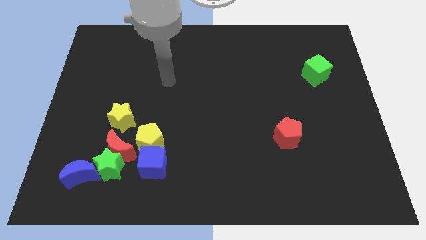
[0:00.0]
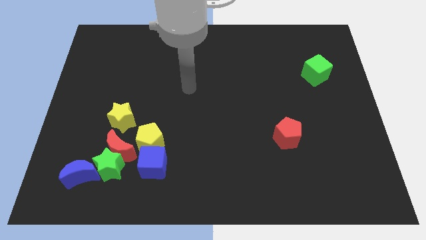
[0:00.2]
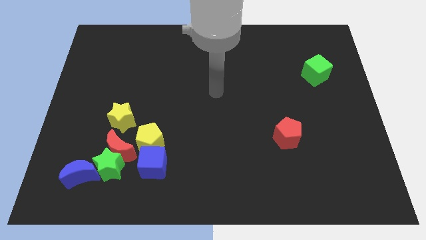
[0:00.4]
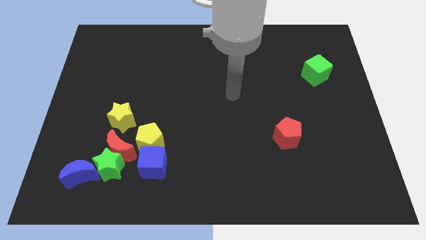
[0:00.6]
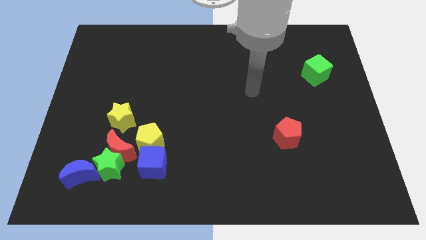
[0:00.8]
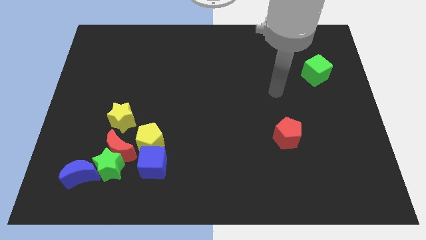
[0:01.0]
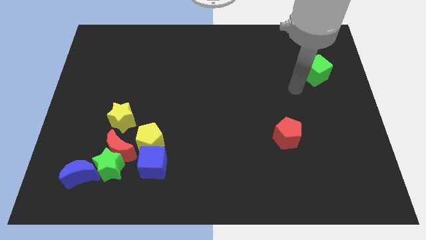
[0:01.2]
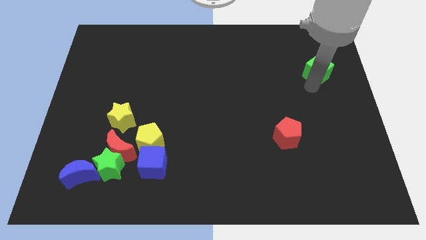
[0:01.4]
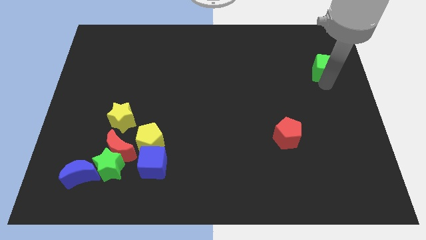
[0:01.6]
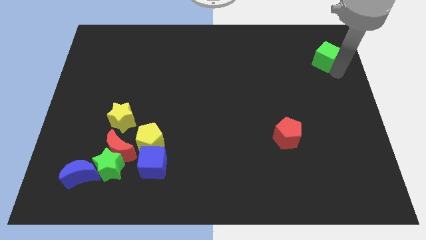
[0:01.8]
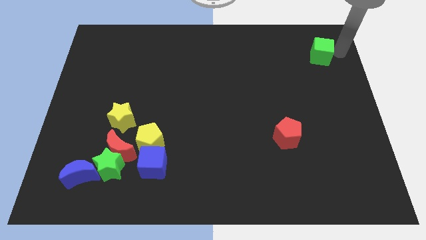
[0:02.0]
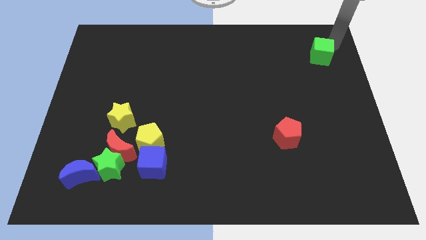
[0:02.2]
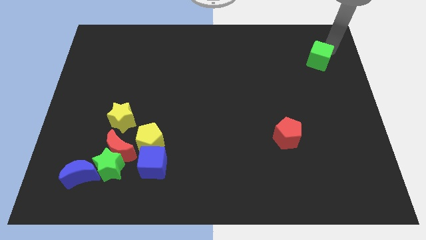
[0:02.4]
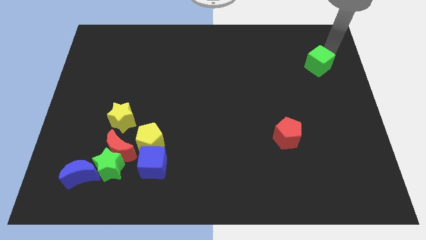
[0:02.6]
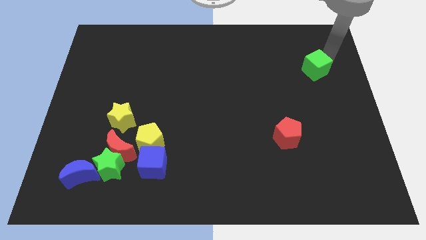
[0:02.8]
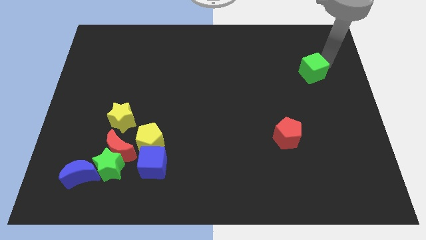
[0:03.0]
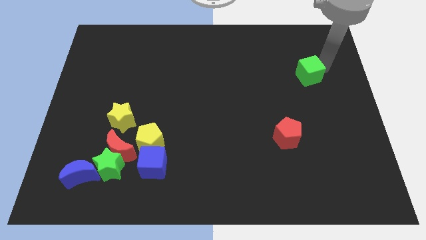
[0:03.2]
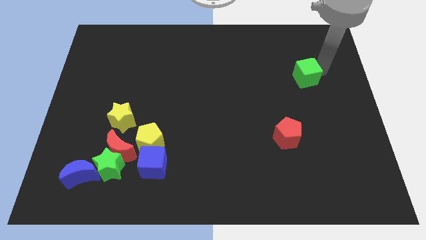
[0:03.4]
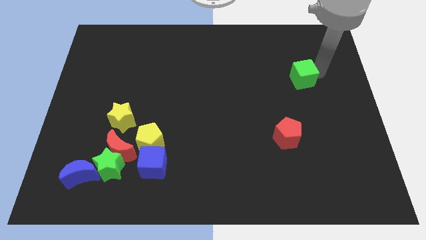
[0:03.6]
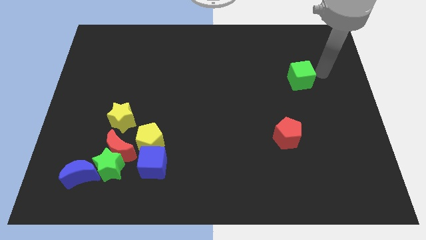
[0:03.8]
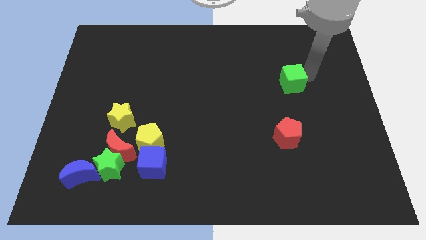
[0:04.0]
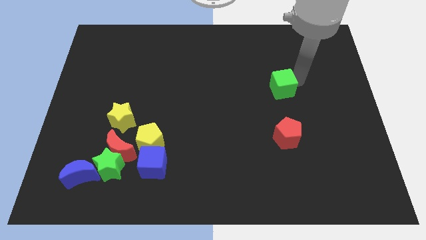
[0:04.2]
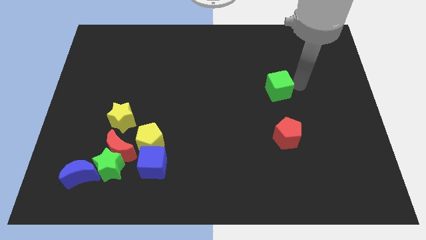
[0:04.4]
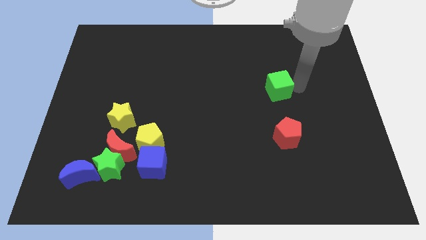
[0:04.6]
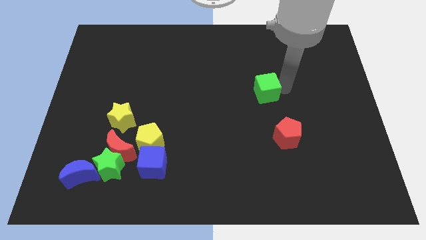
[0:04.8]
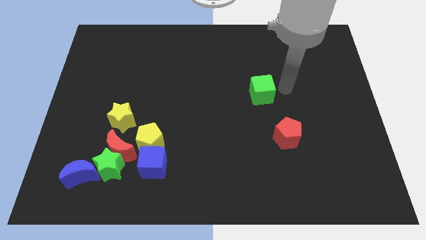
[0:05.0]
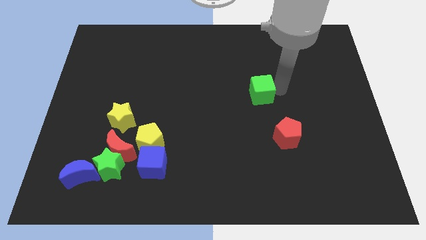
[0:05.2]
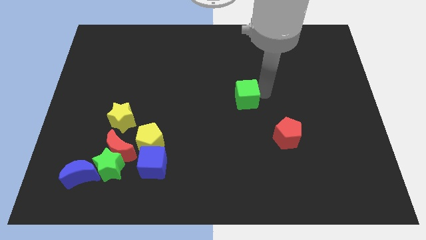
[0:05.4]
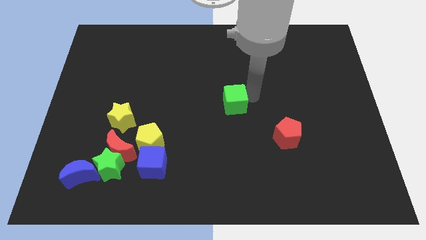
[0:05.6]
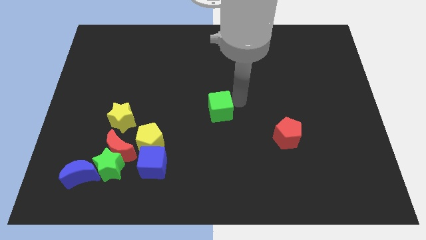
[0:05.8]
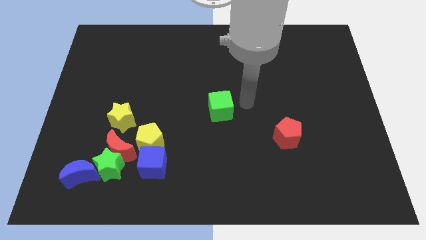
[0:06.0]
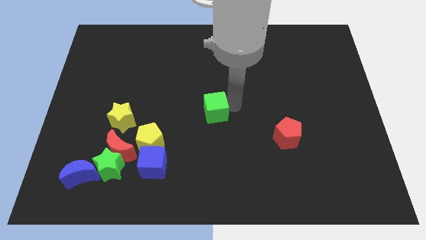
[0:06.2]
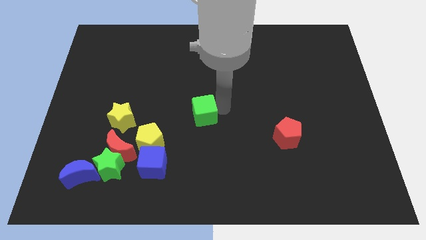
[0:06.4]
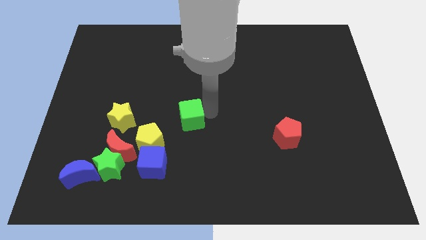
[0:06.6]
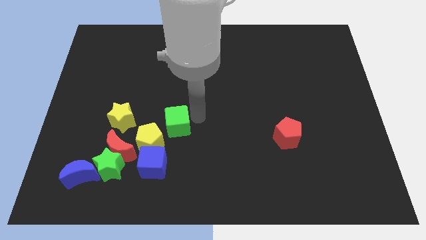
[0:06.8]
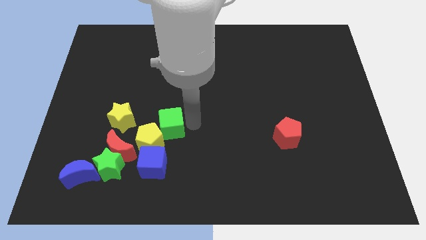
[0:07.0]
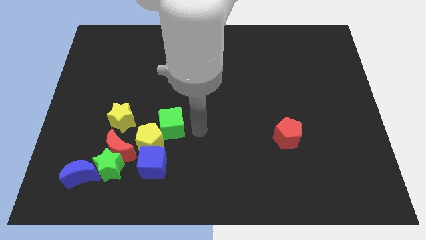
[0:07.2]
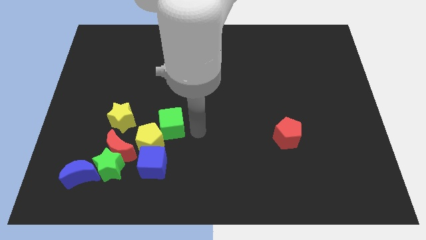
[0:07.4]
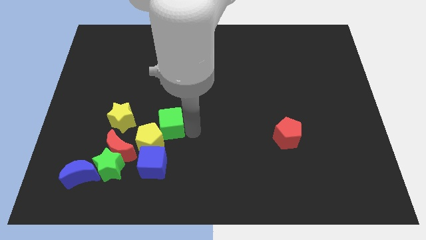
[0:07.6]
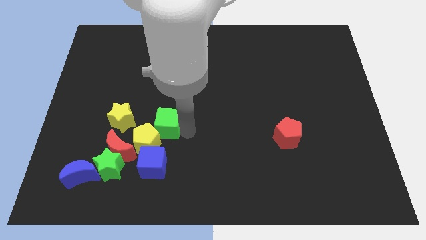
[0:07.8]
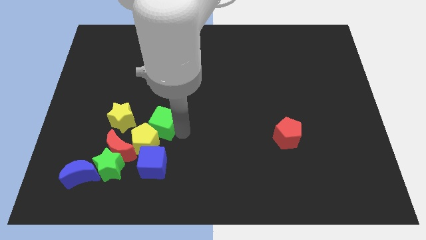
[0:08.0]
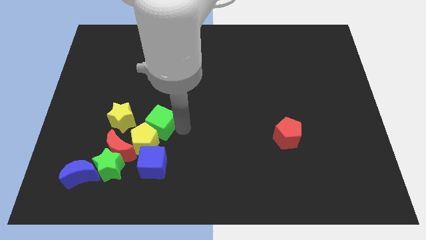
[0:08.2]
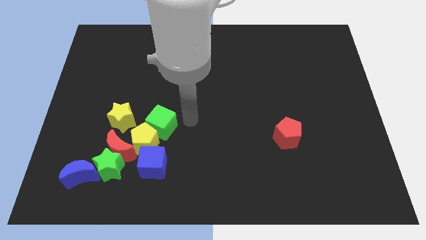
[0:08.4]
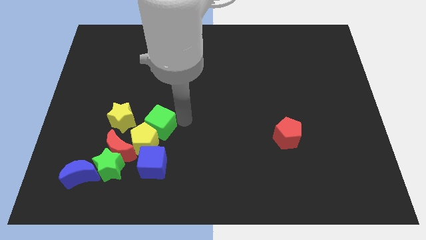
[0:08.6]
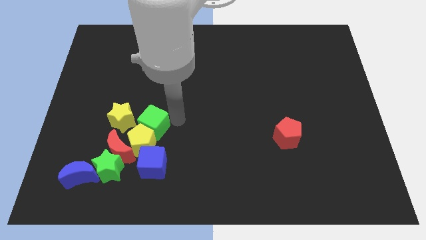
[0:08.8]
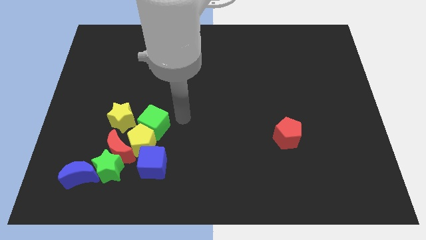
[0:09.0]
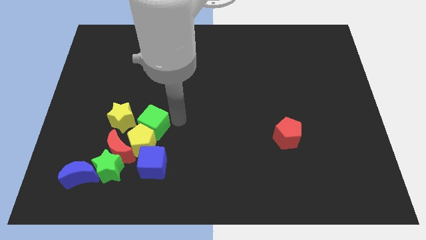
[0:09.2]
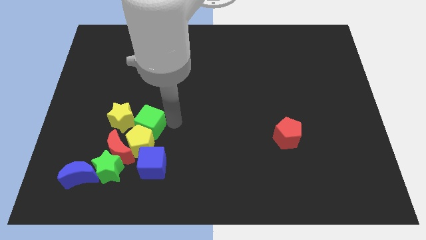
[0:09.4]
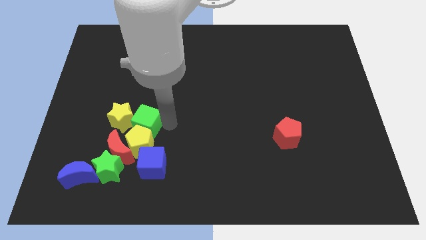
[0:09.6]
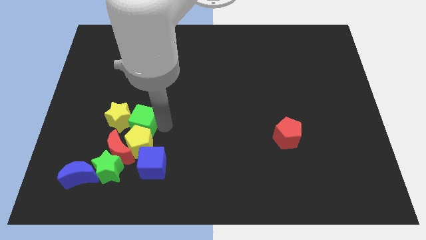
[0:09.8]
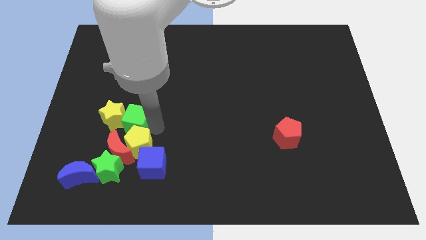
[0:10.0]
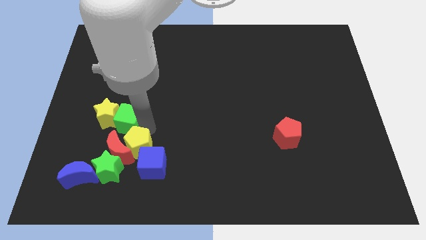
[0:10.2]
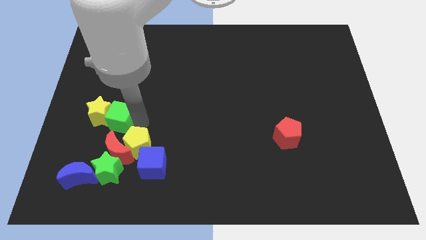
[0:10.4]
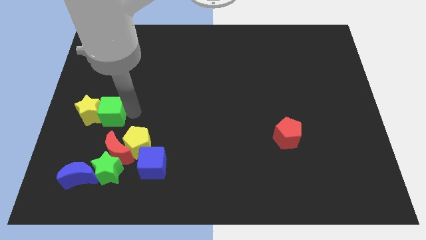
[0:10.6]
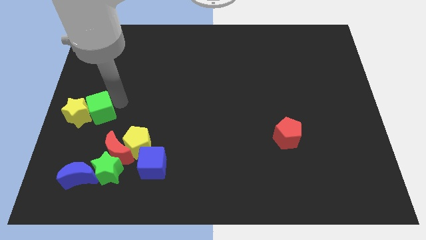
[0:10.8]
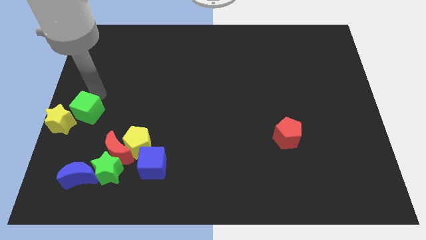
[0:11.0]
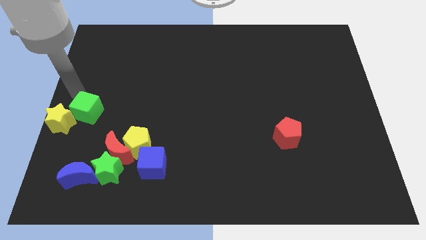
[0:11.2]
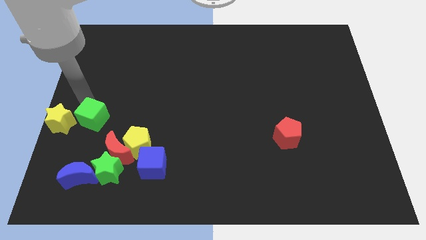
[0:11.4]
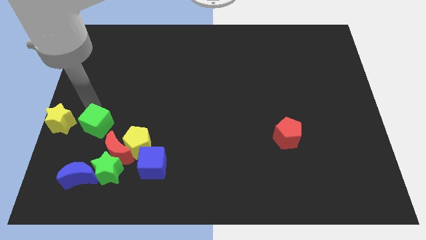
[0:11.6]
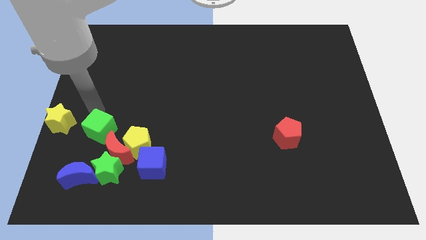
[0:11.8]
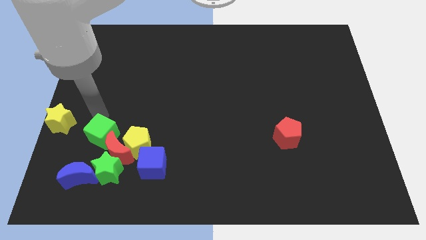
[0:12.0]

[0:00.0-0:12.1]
slide the green cube next to the red moon

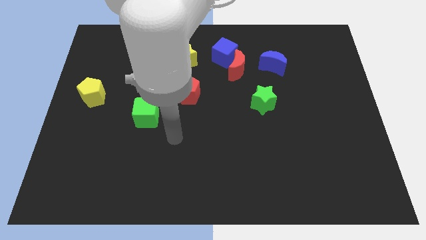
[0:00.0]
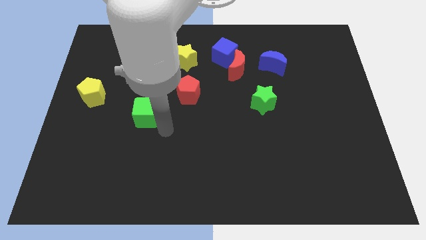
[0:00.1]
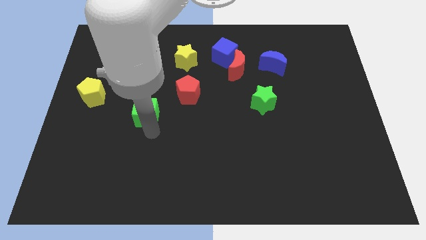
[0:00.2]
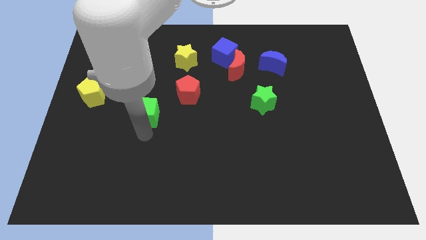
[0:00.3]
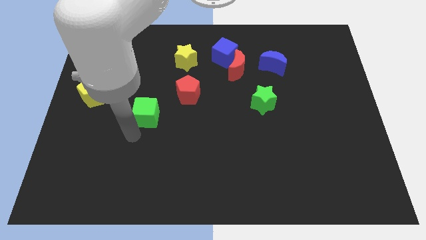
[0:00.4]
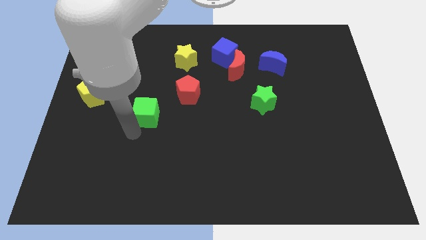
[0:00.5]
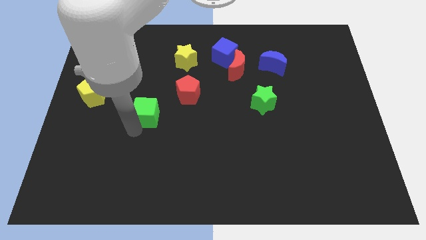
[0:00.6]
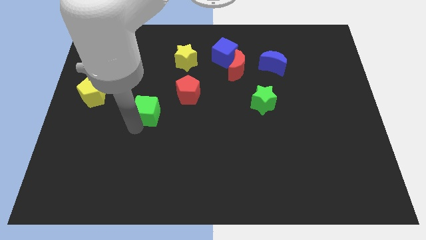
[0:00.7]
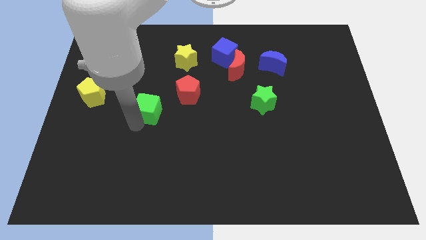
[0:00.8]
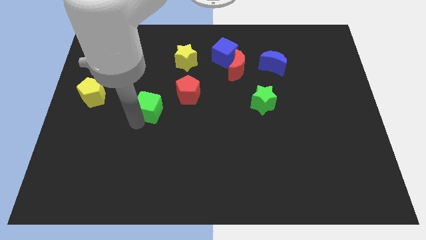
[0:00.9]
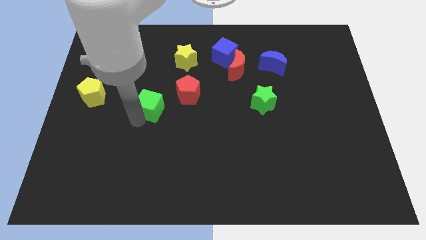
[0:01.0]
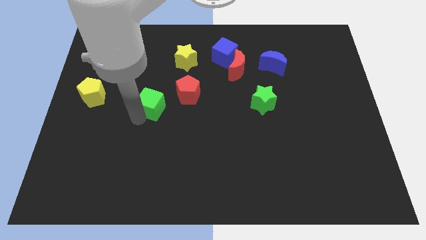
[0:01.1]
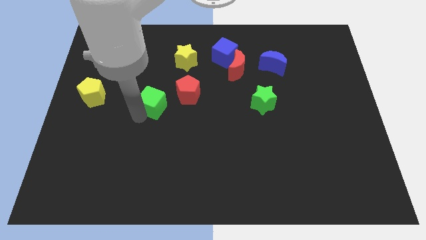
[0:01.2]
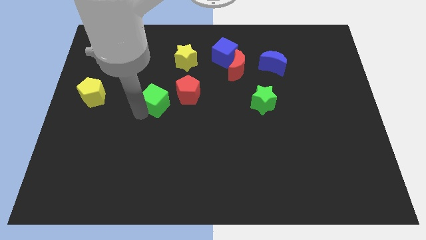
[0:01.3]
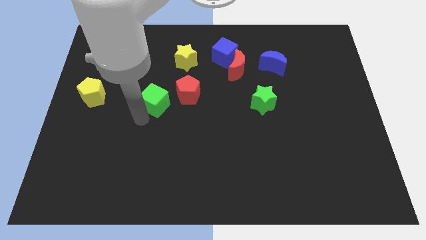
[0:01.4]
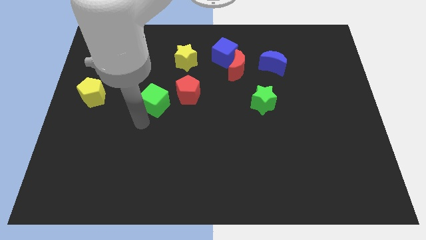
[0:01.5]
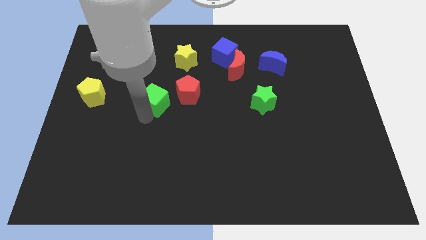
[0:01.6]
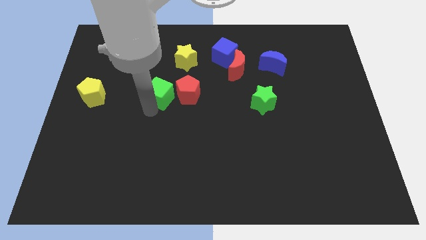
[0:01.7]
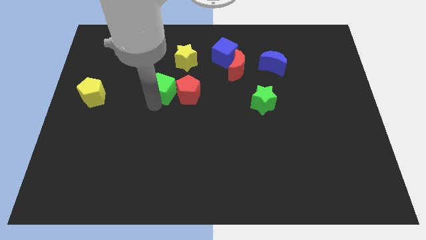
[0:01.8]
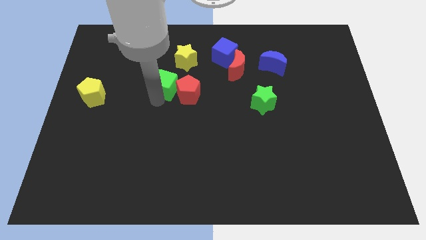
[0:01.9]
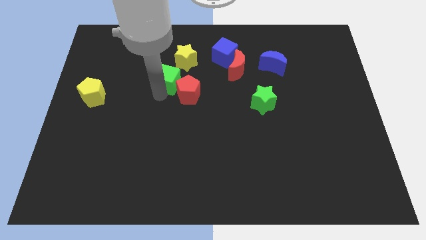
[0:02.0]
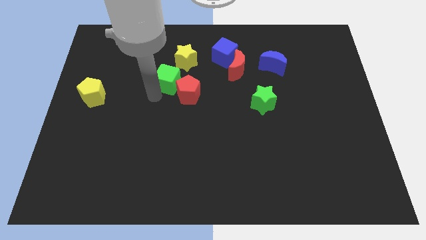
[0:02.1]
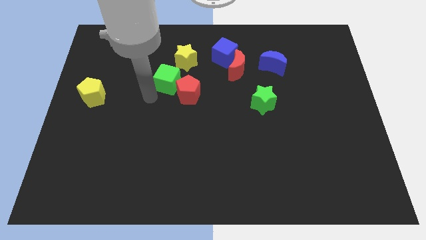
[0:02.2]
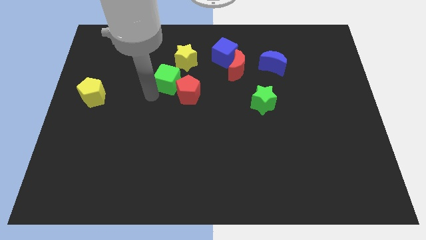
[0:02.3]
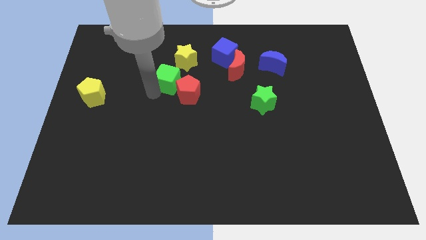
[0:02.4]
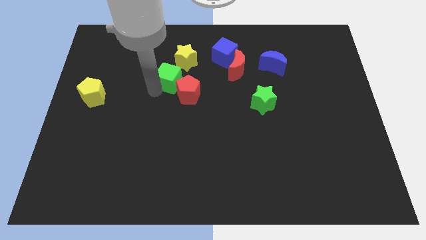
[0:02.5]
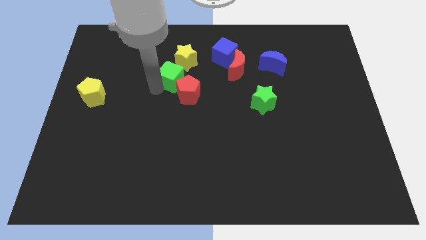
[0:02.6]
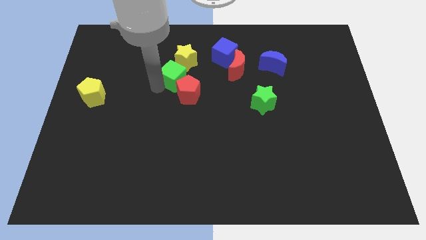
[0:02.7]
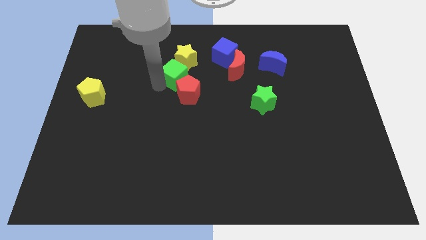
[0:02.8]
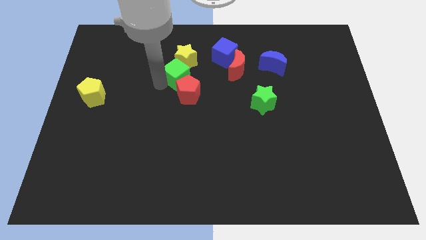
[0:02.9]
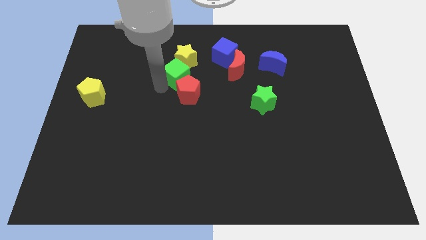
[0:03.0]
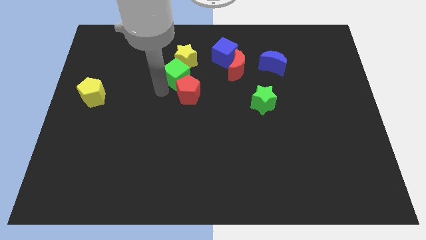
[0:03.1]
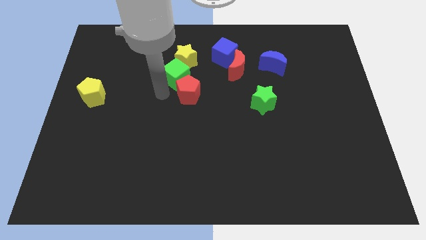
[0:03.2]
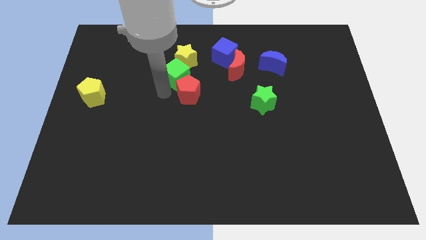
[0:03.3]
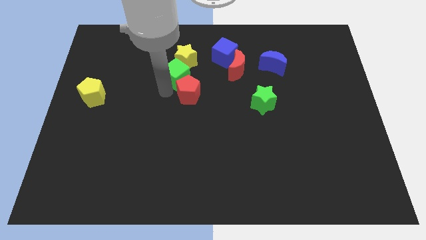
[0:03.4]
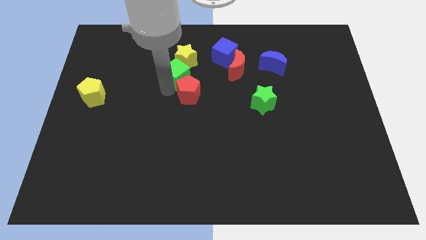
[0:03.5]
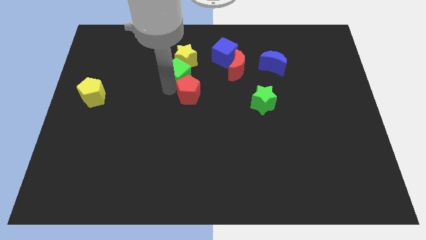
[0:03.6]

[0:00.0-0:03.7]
move the green cube to the yellow star
